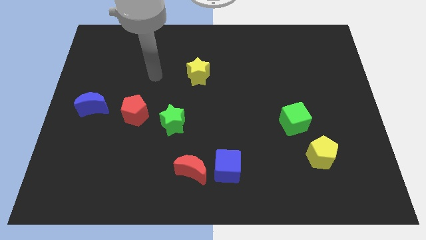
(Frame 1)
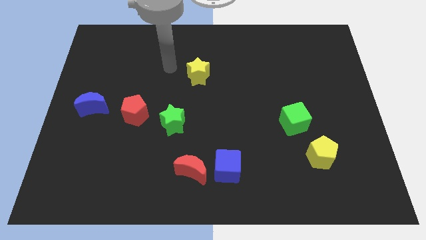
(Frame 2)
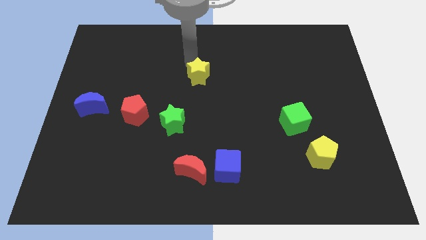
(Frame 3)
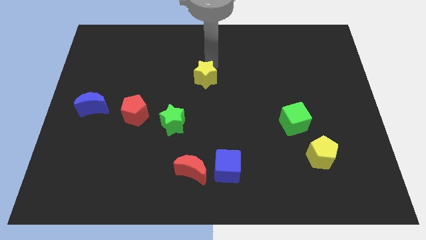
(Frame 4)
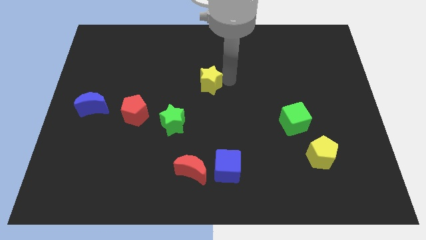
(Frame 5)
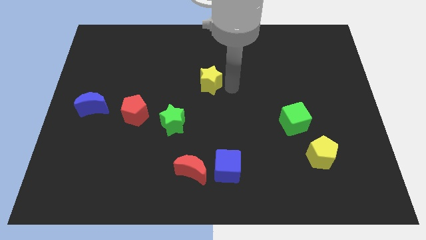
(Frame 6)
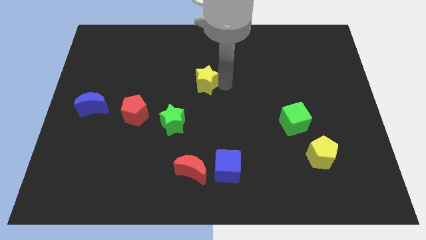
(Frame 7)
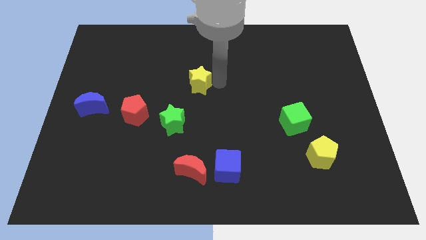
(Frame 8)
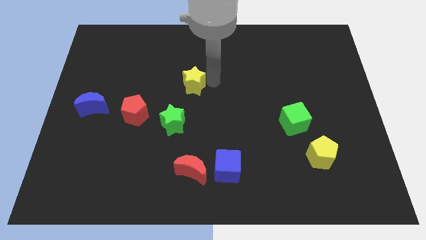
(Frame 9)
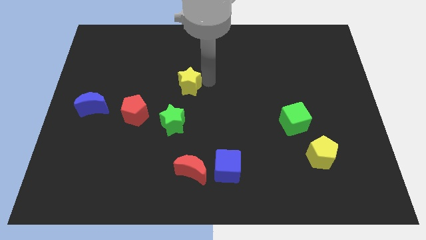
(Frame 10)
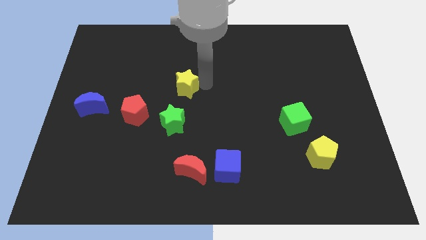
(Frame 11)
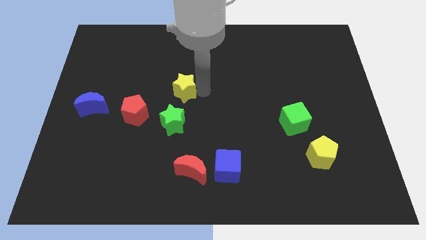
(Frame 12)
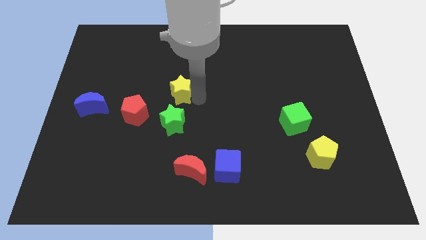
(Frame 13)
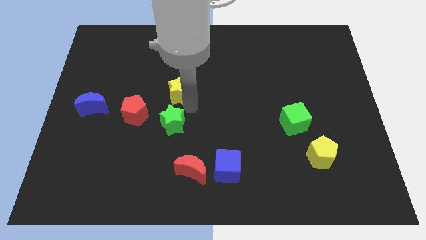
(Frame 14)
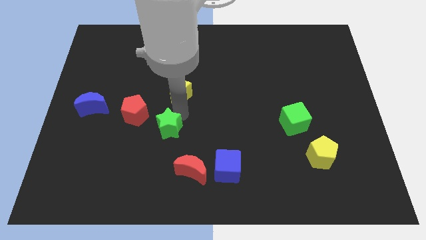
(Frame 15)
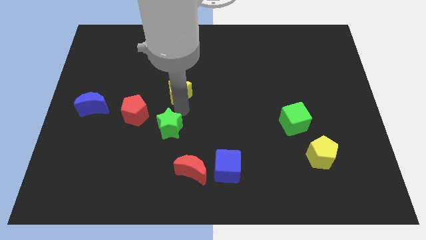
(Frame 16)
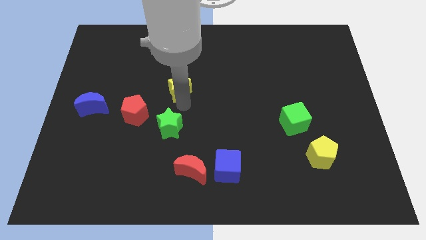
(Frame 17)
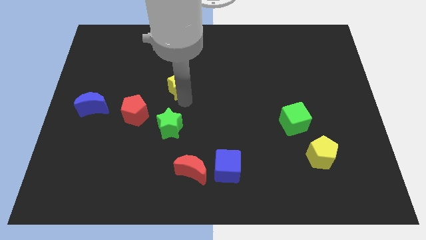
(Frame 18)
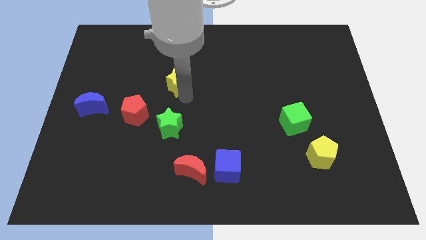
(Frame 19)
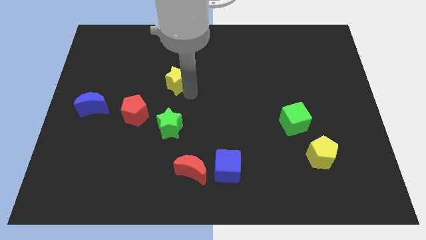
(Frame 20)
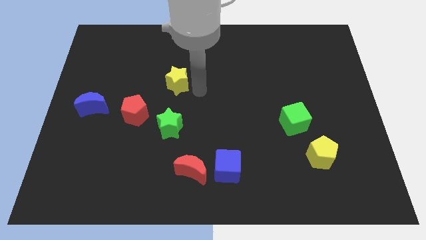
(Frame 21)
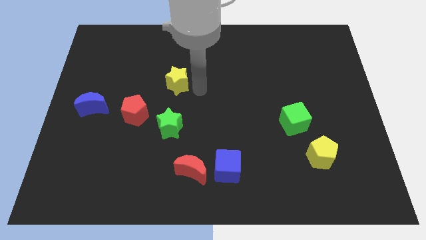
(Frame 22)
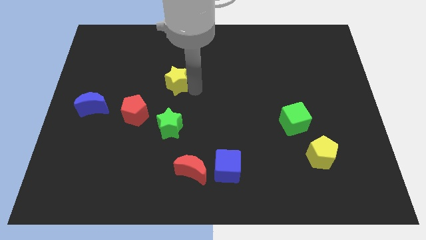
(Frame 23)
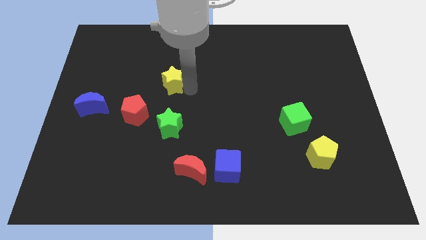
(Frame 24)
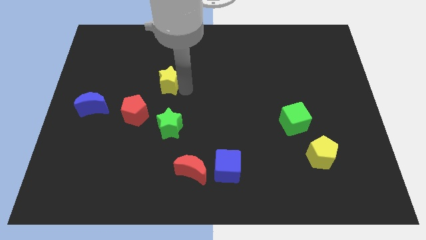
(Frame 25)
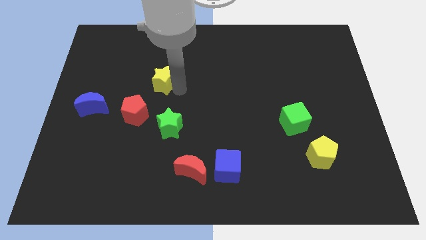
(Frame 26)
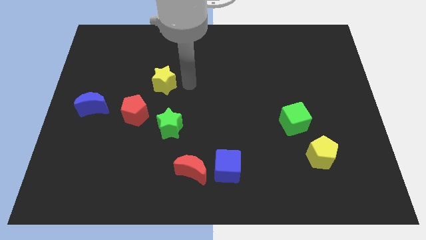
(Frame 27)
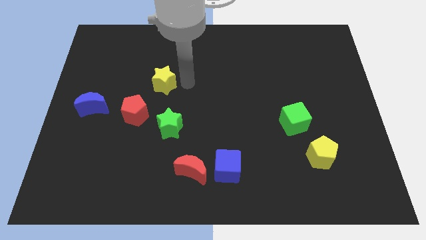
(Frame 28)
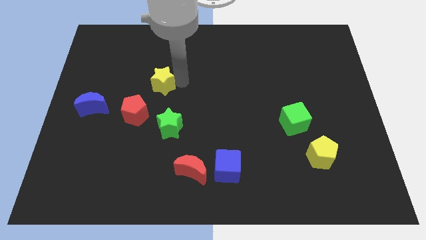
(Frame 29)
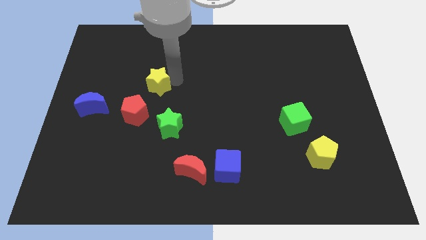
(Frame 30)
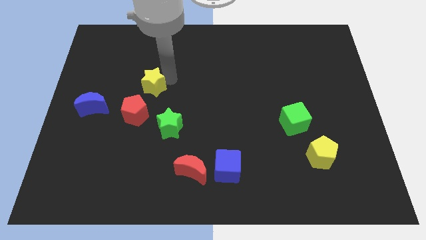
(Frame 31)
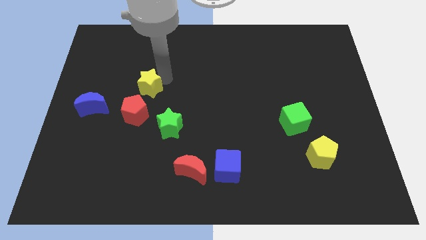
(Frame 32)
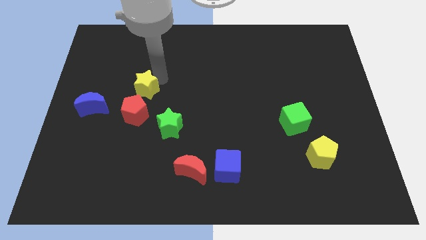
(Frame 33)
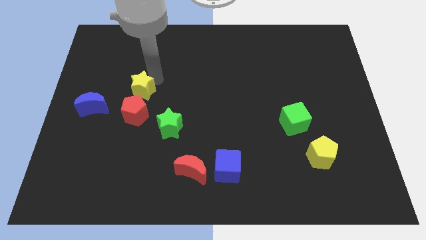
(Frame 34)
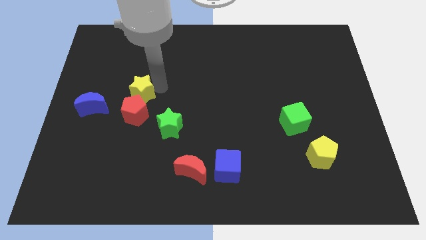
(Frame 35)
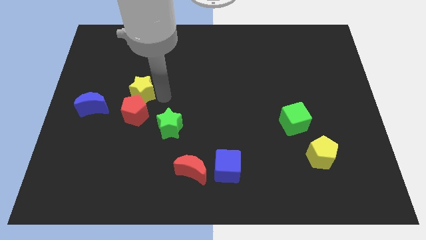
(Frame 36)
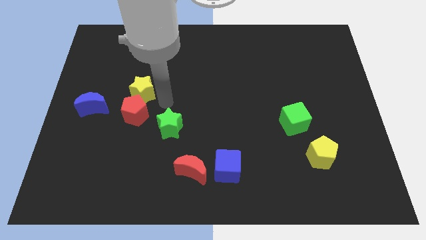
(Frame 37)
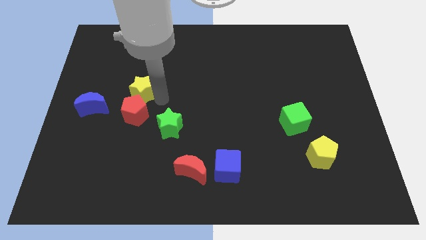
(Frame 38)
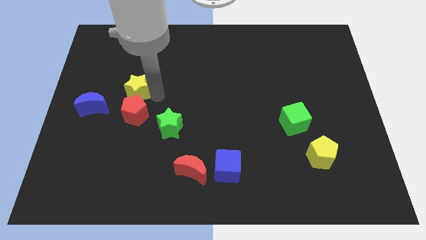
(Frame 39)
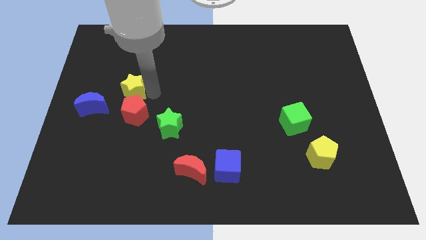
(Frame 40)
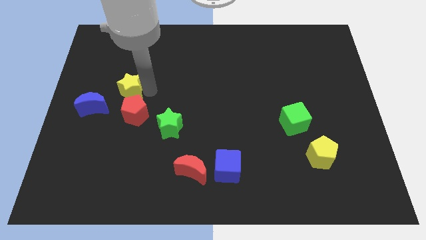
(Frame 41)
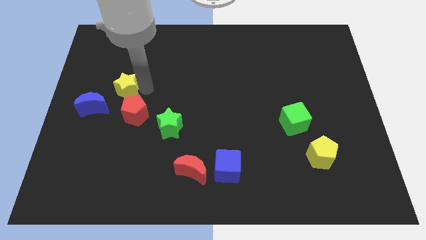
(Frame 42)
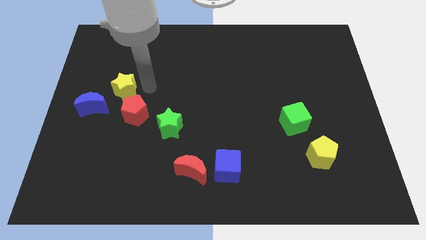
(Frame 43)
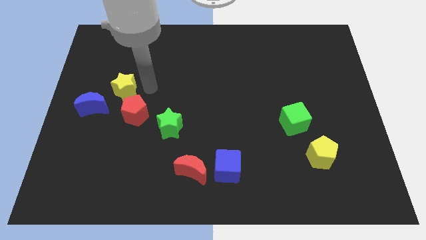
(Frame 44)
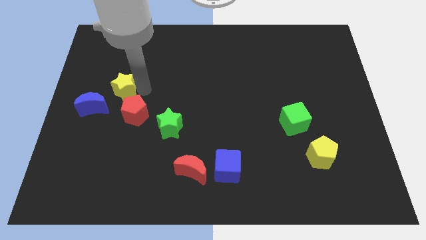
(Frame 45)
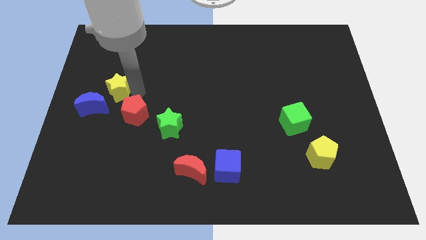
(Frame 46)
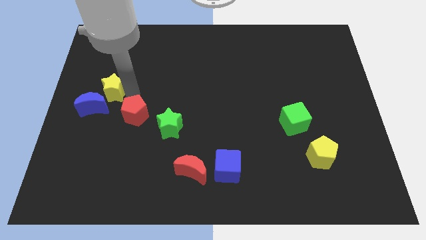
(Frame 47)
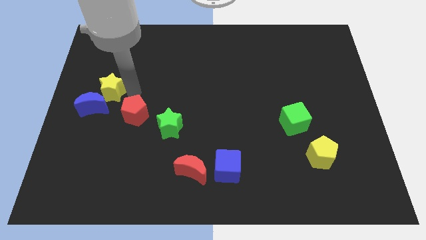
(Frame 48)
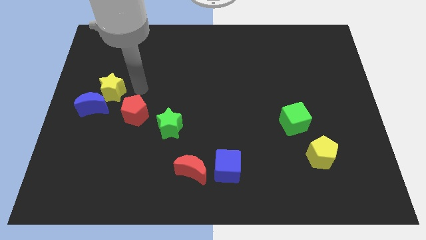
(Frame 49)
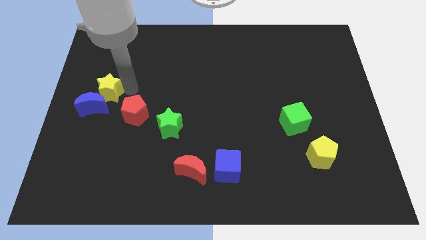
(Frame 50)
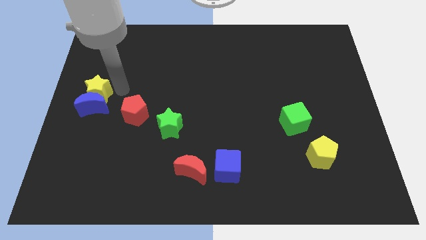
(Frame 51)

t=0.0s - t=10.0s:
put the yellow star to the left side

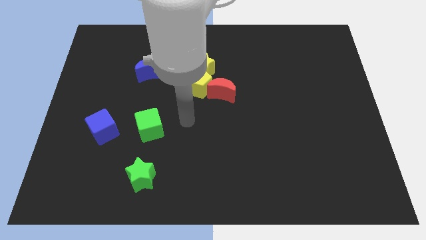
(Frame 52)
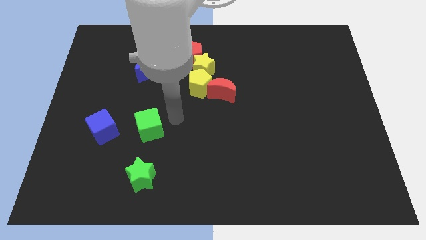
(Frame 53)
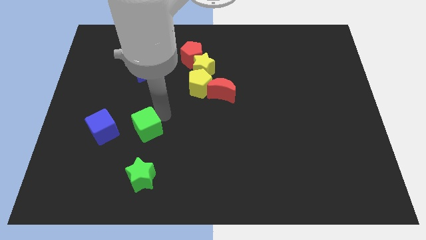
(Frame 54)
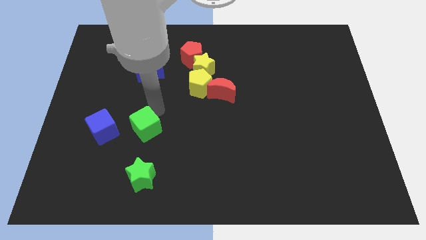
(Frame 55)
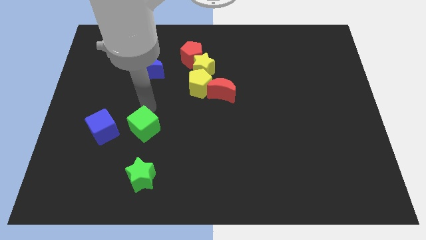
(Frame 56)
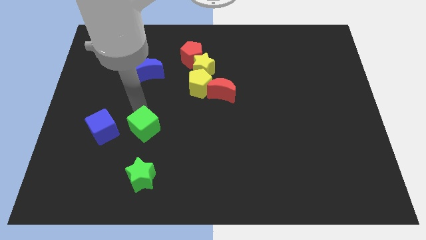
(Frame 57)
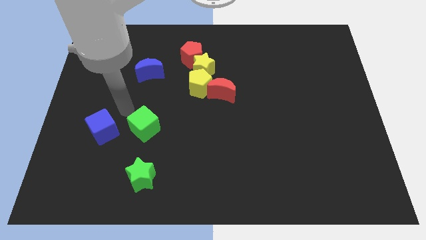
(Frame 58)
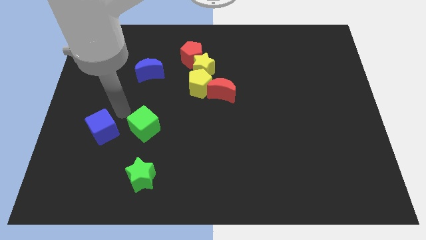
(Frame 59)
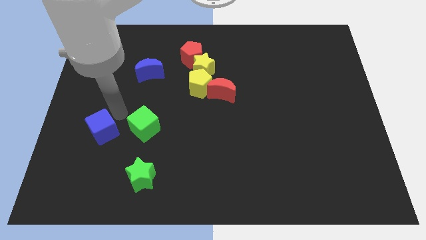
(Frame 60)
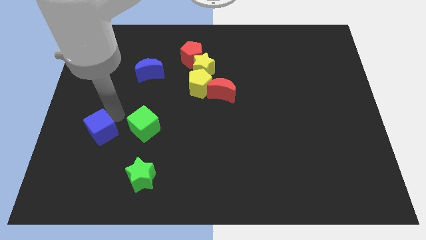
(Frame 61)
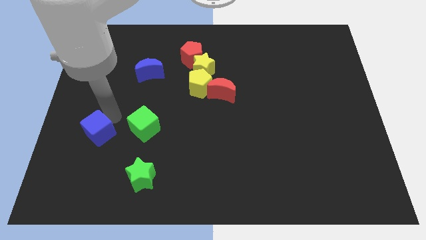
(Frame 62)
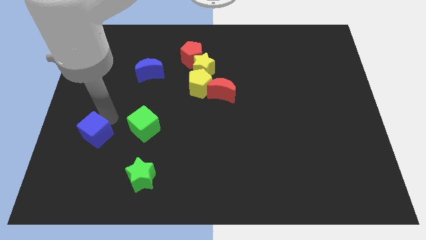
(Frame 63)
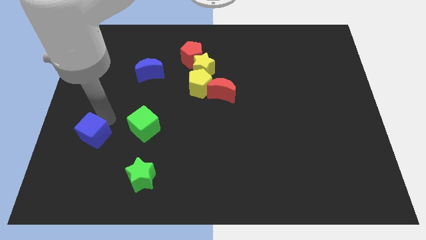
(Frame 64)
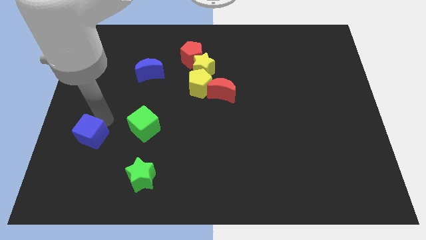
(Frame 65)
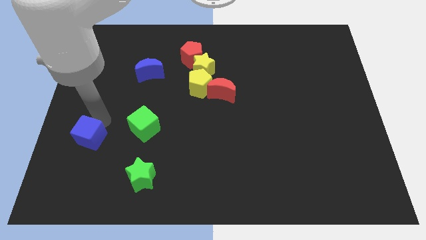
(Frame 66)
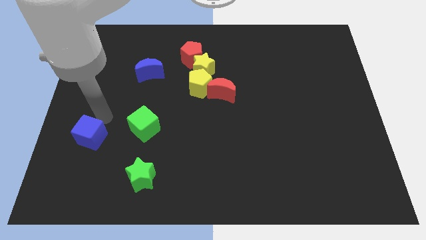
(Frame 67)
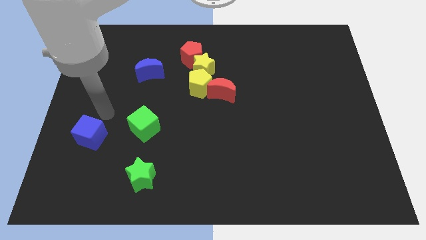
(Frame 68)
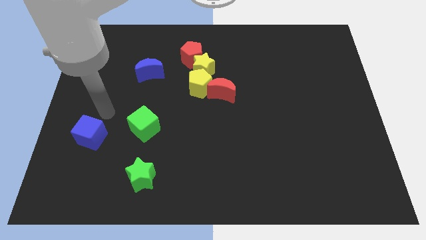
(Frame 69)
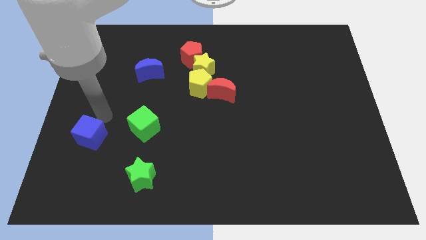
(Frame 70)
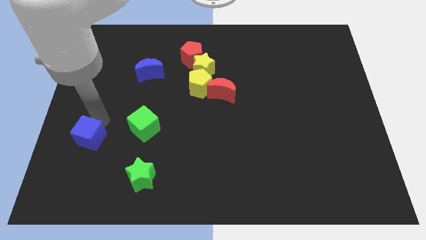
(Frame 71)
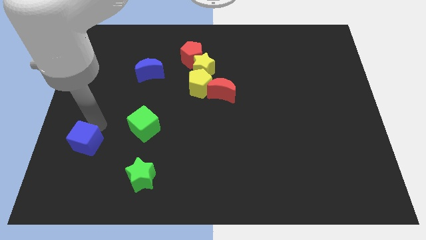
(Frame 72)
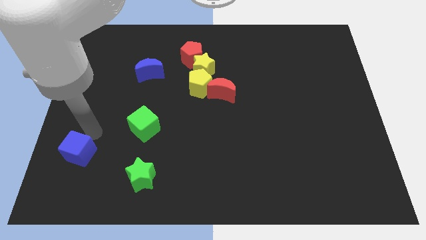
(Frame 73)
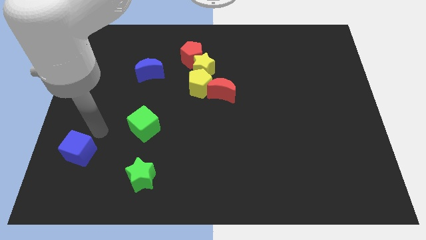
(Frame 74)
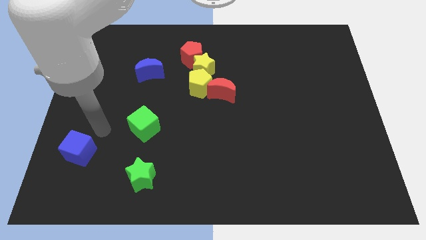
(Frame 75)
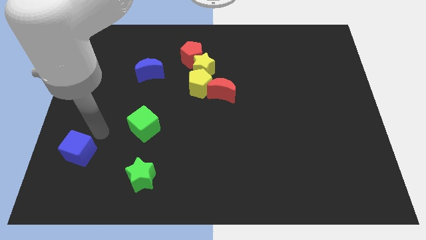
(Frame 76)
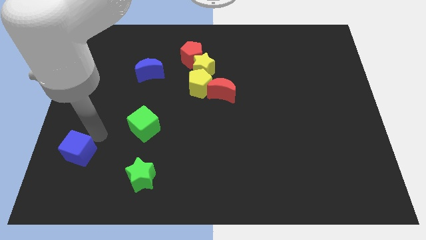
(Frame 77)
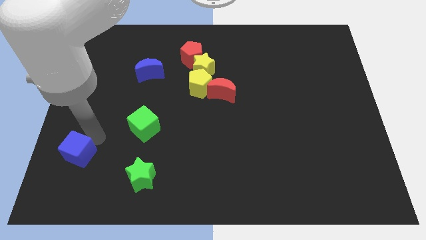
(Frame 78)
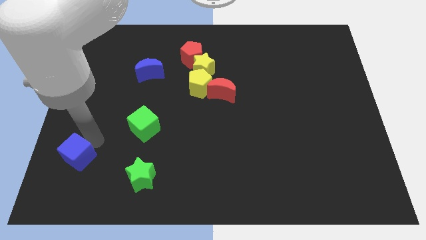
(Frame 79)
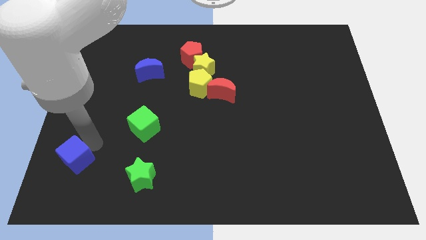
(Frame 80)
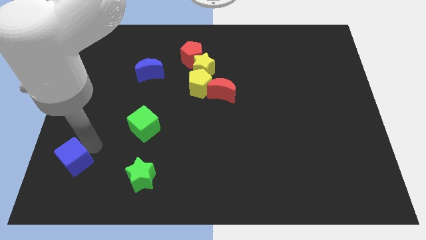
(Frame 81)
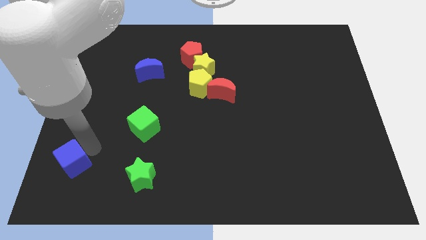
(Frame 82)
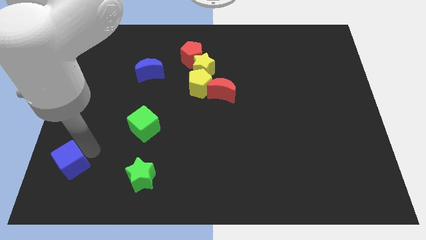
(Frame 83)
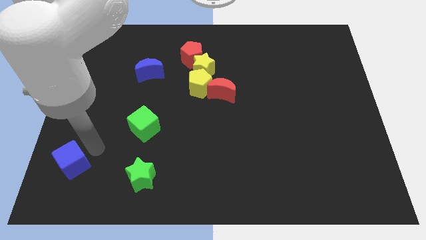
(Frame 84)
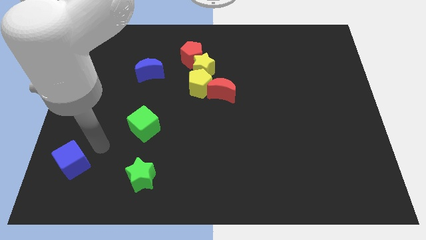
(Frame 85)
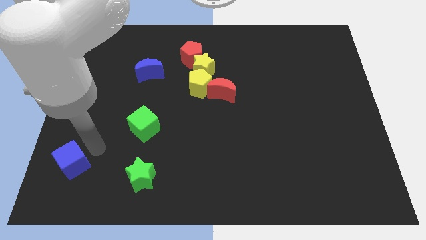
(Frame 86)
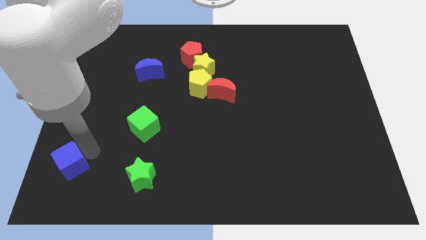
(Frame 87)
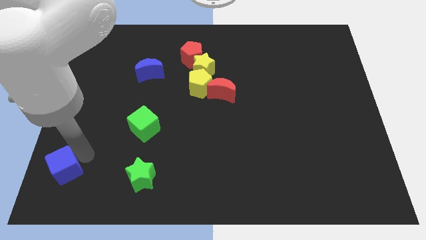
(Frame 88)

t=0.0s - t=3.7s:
push the blue cube to the lower left corner
